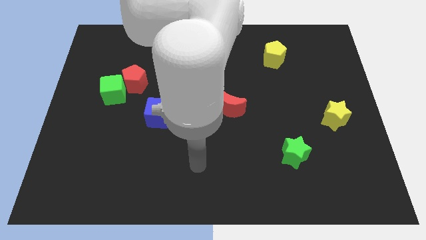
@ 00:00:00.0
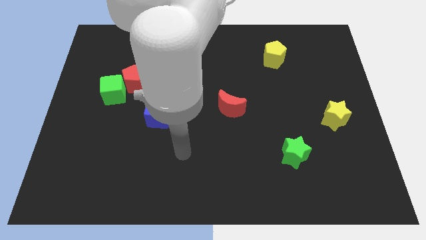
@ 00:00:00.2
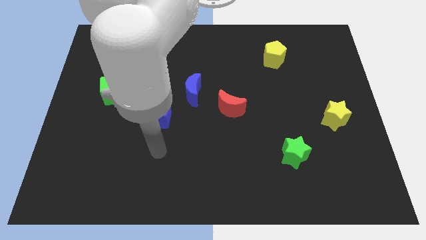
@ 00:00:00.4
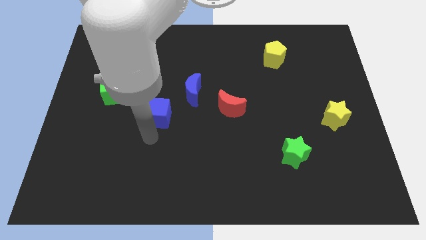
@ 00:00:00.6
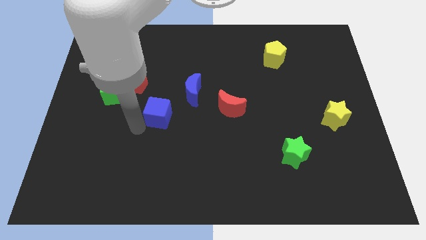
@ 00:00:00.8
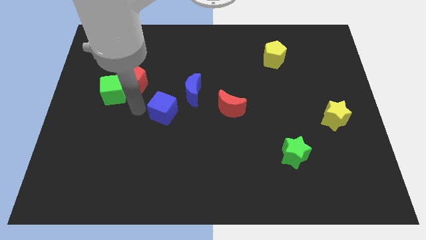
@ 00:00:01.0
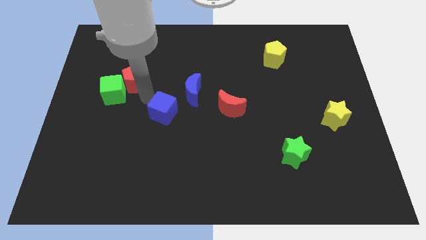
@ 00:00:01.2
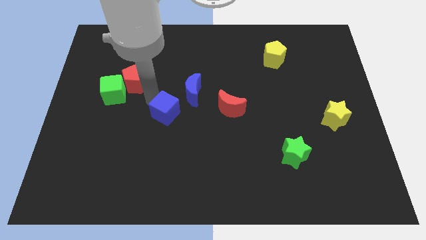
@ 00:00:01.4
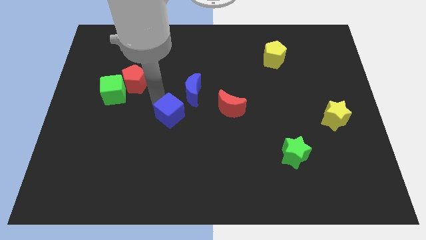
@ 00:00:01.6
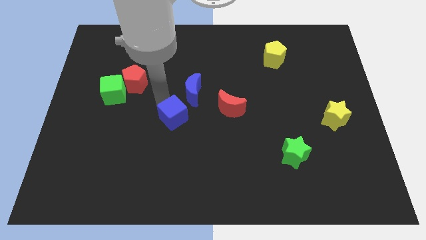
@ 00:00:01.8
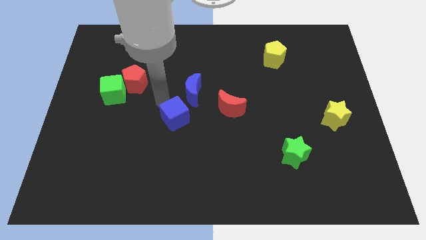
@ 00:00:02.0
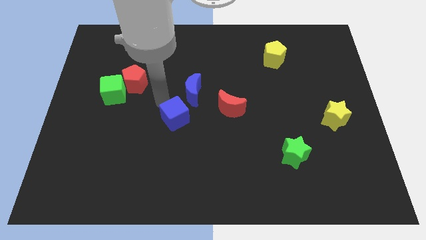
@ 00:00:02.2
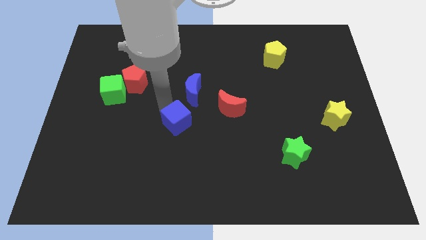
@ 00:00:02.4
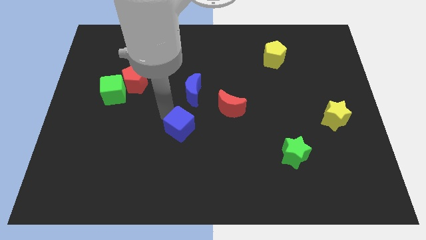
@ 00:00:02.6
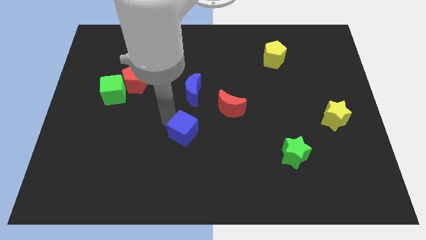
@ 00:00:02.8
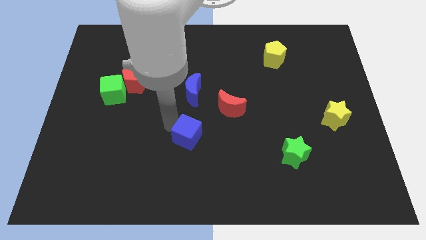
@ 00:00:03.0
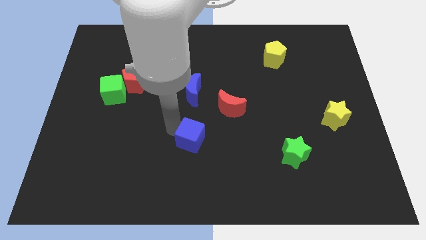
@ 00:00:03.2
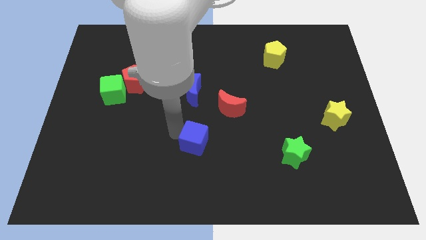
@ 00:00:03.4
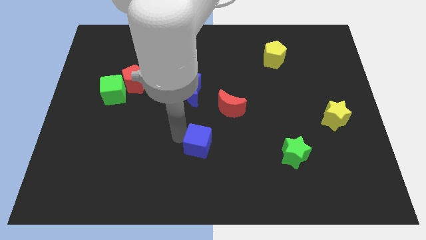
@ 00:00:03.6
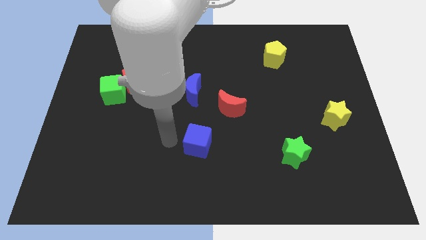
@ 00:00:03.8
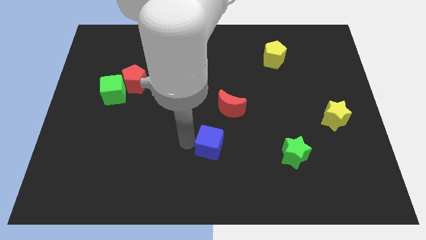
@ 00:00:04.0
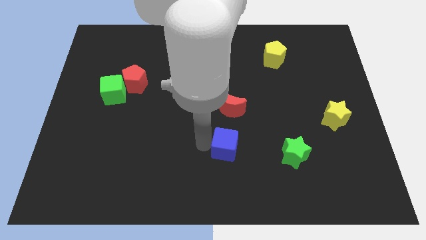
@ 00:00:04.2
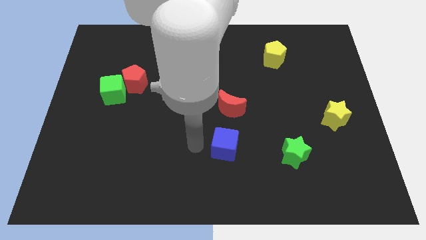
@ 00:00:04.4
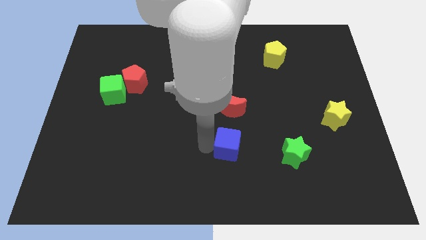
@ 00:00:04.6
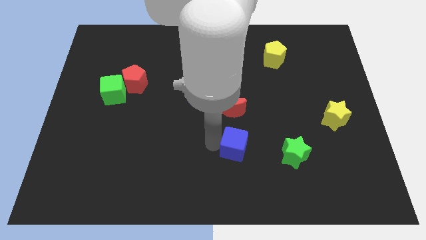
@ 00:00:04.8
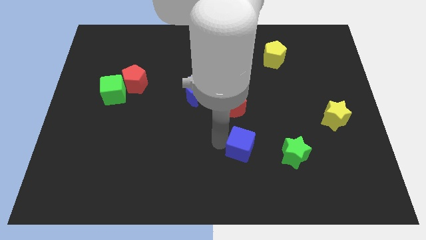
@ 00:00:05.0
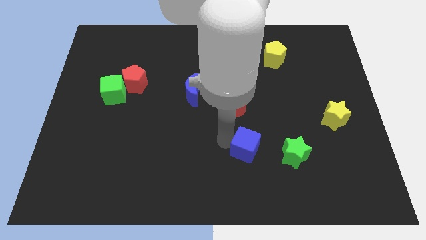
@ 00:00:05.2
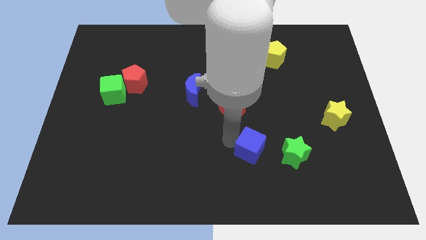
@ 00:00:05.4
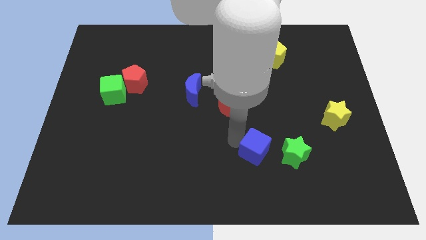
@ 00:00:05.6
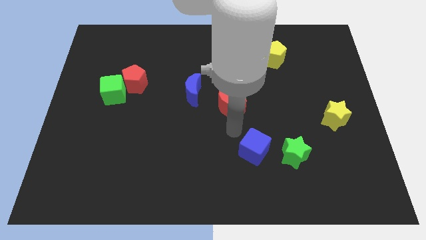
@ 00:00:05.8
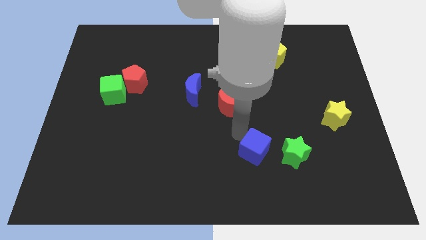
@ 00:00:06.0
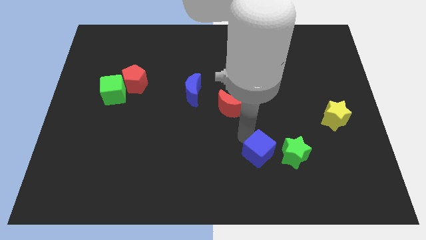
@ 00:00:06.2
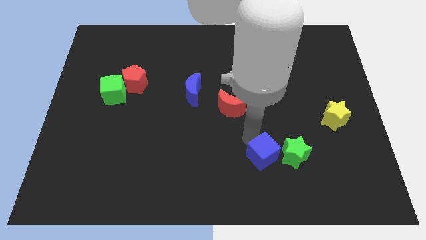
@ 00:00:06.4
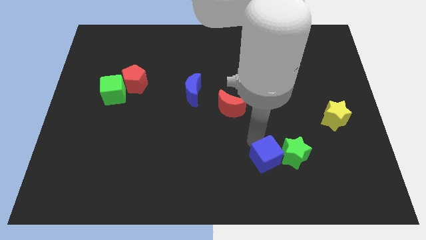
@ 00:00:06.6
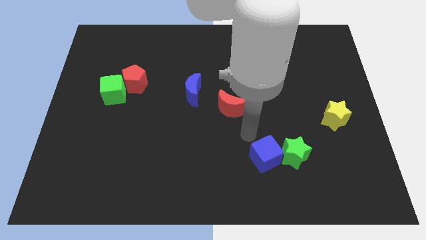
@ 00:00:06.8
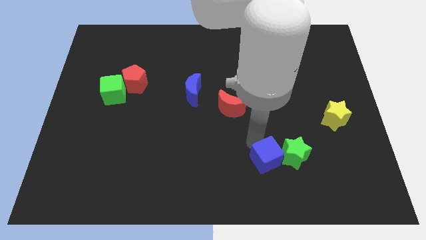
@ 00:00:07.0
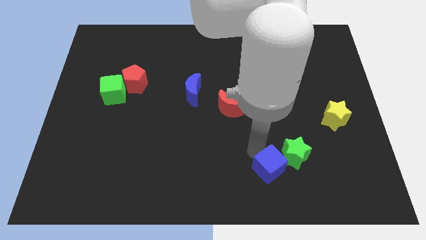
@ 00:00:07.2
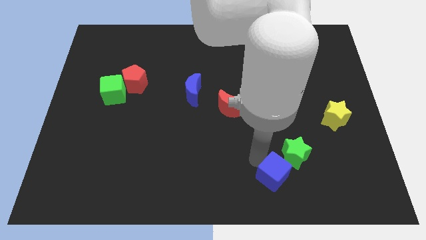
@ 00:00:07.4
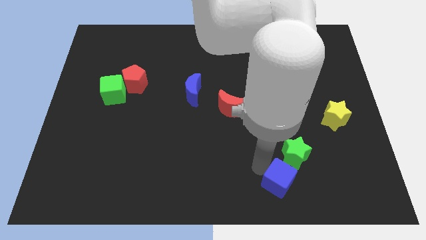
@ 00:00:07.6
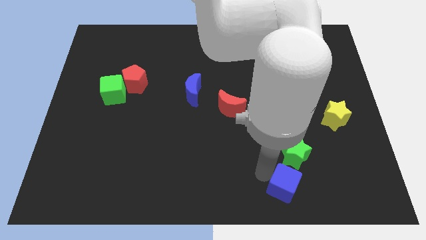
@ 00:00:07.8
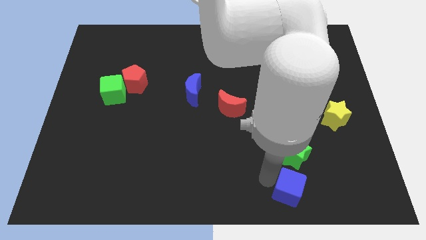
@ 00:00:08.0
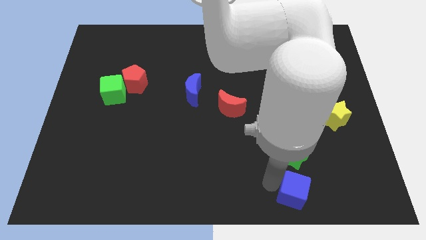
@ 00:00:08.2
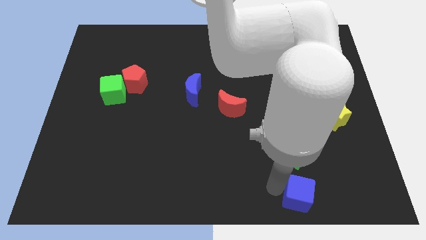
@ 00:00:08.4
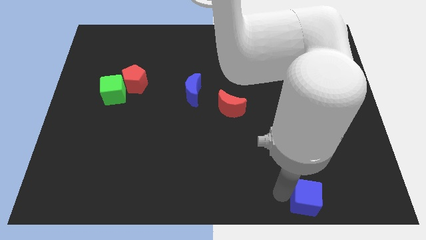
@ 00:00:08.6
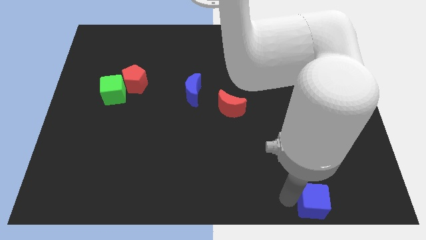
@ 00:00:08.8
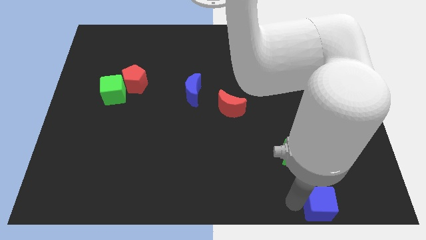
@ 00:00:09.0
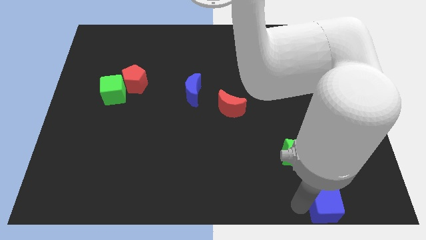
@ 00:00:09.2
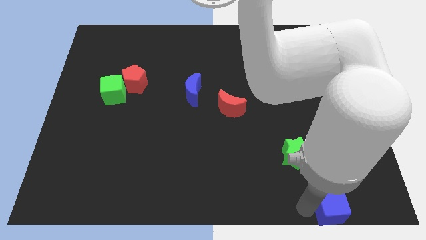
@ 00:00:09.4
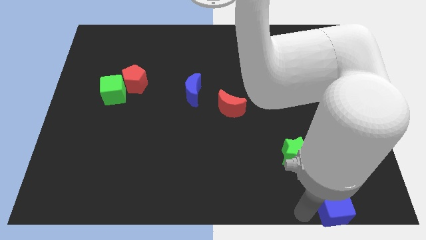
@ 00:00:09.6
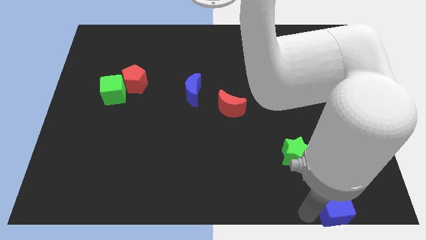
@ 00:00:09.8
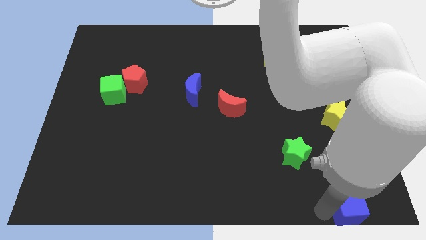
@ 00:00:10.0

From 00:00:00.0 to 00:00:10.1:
push the blue cube to the bottom right corner

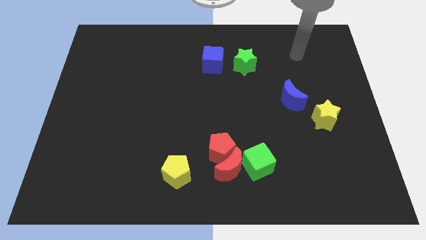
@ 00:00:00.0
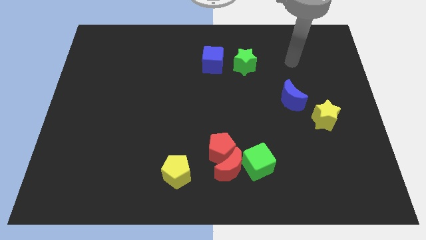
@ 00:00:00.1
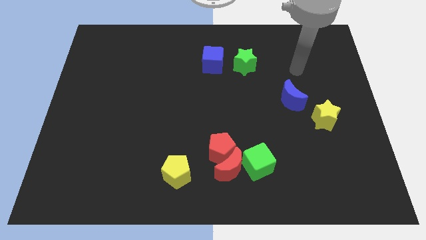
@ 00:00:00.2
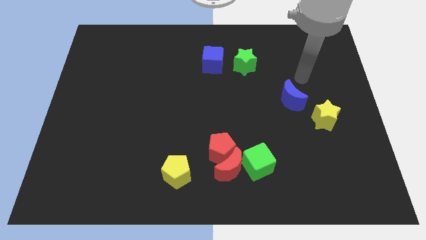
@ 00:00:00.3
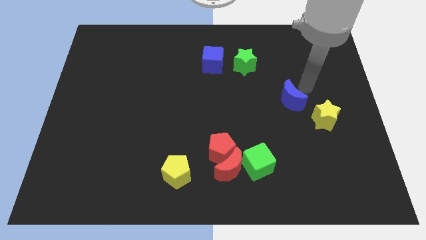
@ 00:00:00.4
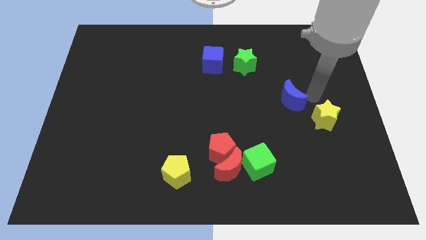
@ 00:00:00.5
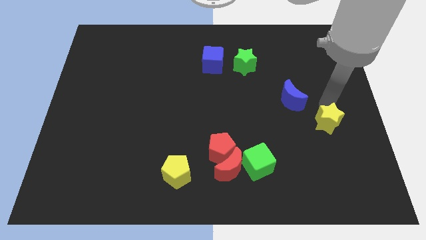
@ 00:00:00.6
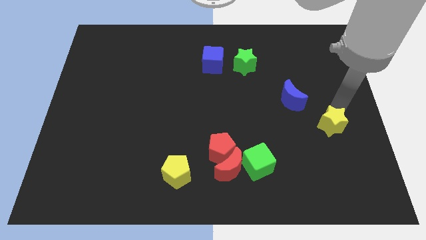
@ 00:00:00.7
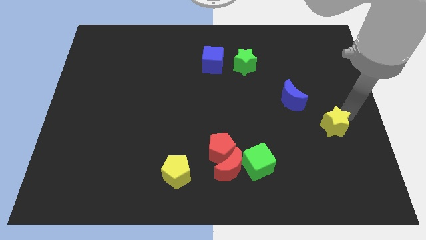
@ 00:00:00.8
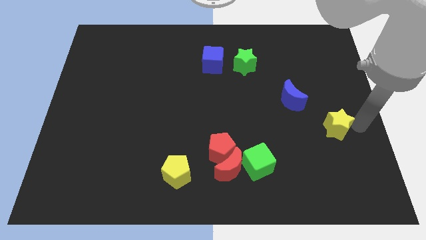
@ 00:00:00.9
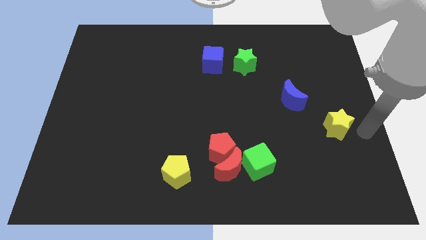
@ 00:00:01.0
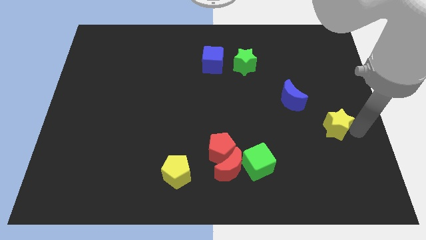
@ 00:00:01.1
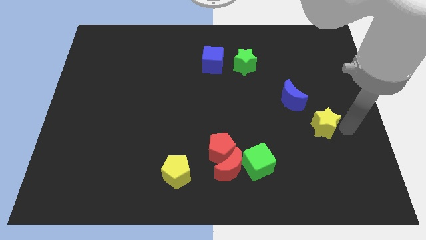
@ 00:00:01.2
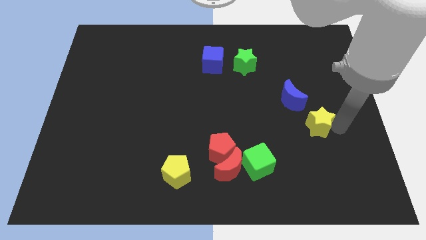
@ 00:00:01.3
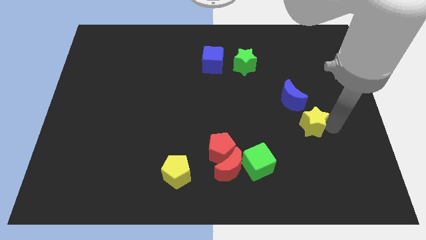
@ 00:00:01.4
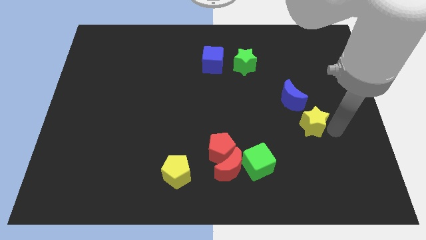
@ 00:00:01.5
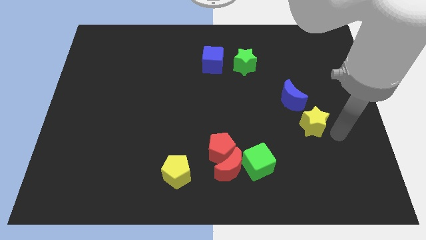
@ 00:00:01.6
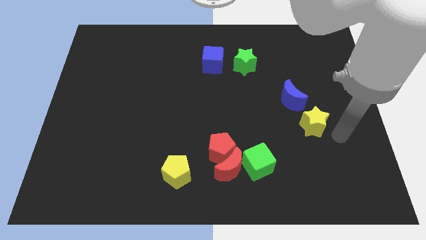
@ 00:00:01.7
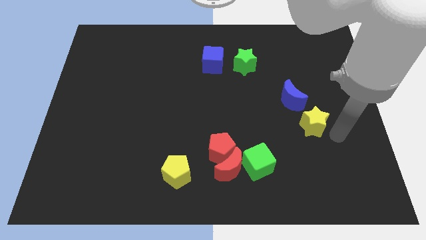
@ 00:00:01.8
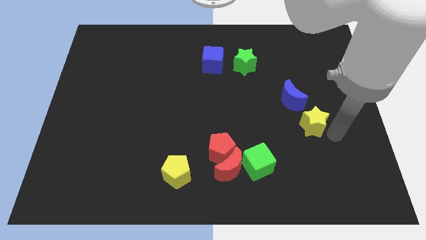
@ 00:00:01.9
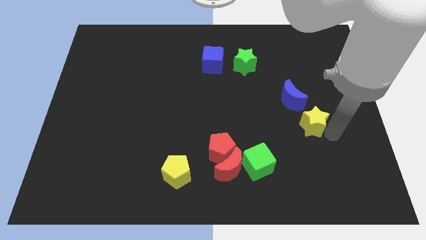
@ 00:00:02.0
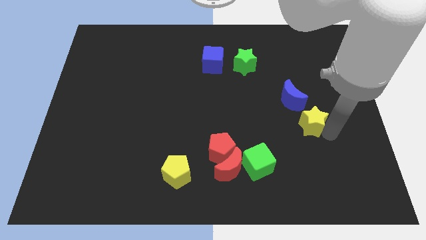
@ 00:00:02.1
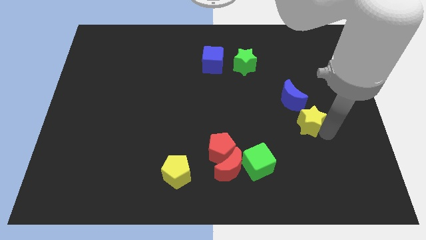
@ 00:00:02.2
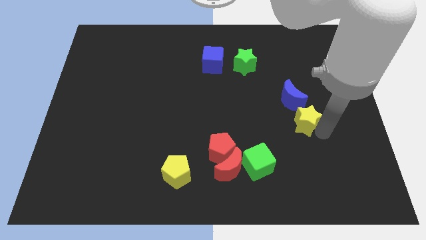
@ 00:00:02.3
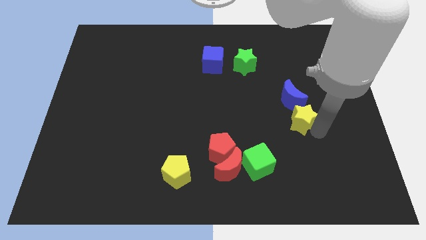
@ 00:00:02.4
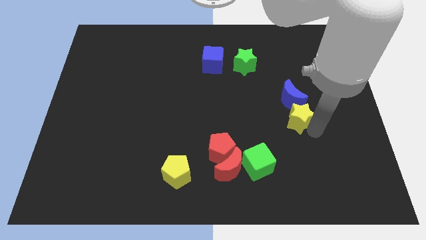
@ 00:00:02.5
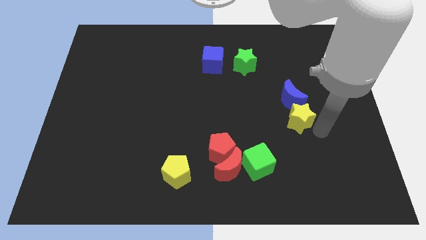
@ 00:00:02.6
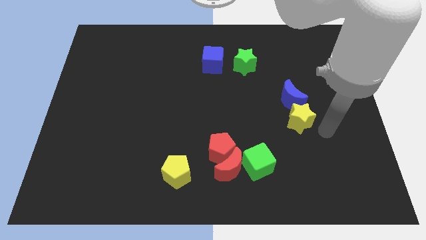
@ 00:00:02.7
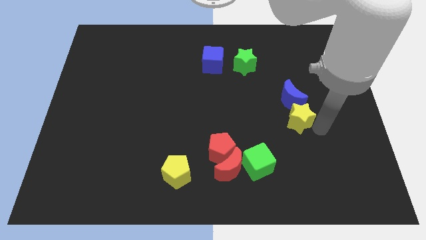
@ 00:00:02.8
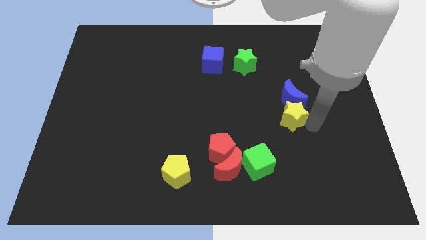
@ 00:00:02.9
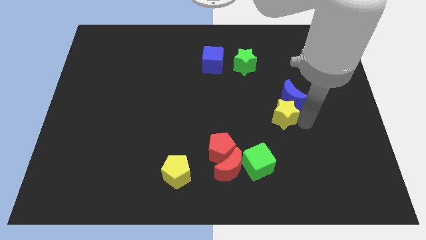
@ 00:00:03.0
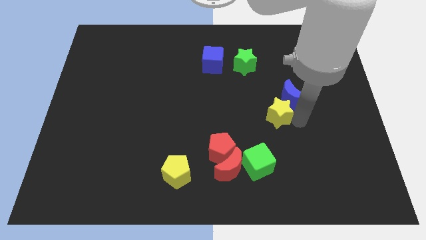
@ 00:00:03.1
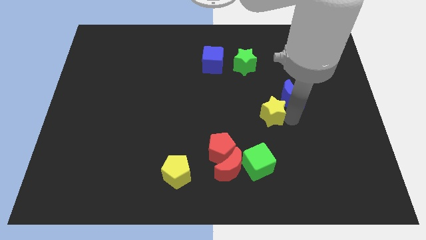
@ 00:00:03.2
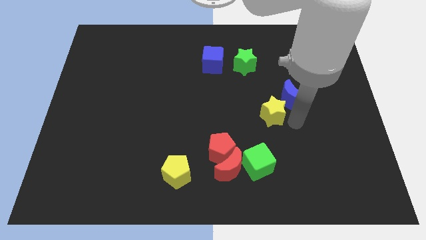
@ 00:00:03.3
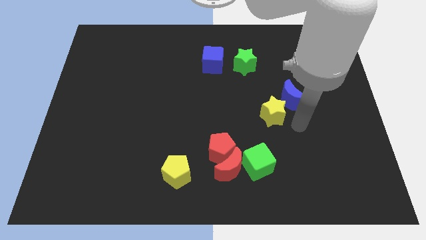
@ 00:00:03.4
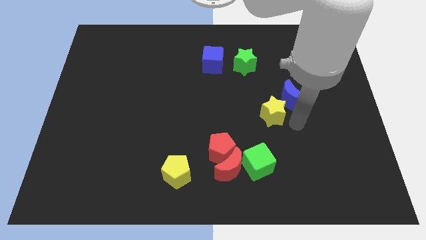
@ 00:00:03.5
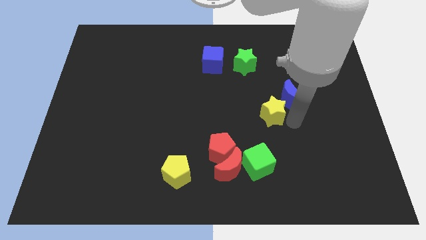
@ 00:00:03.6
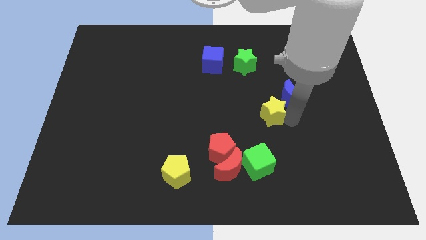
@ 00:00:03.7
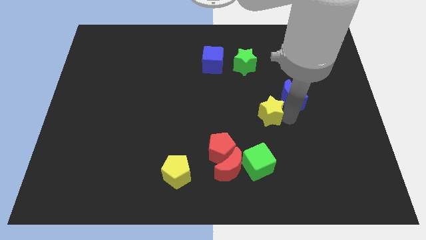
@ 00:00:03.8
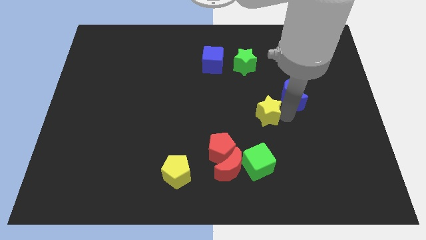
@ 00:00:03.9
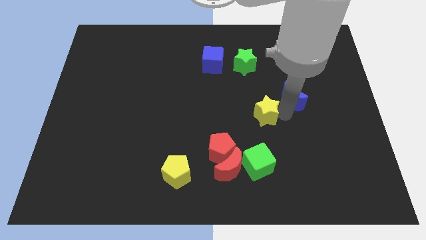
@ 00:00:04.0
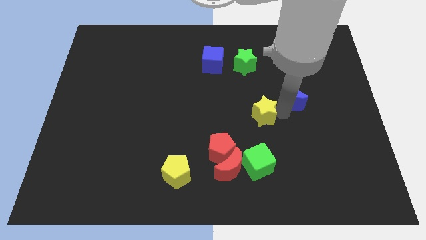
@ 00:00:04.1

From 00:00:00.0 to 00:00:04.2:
slide the yellow star to the middle
